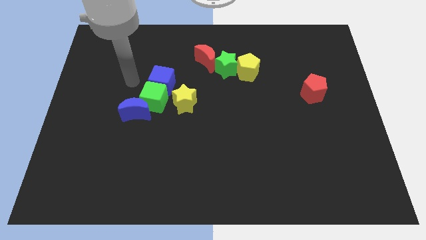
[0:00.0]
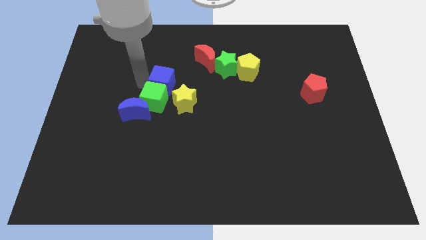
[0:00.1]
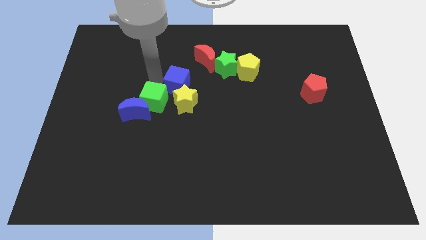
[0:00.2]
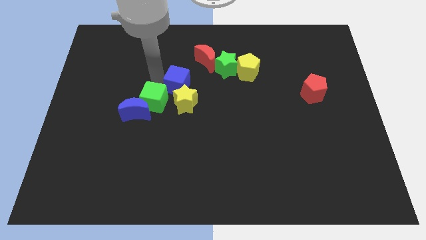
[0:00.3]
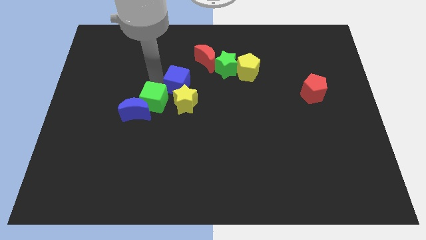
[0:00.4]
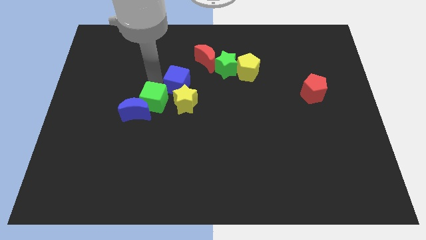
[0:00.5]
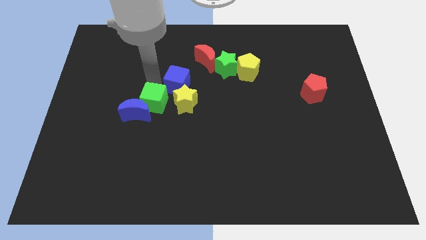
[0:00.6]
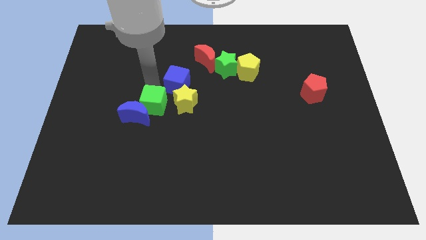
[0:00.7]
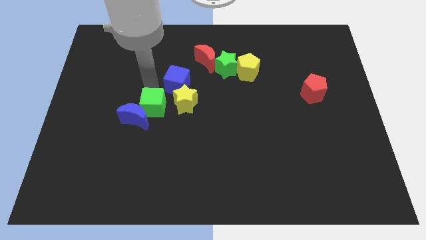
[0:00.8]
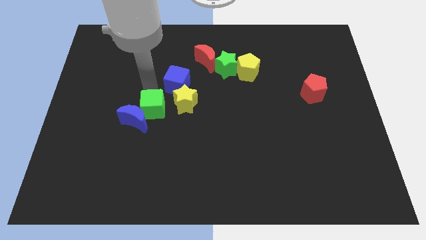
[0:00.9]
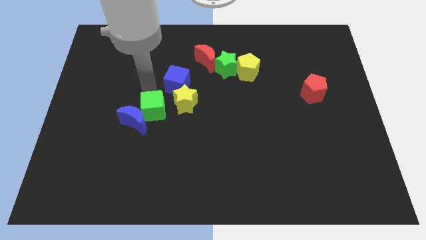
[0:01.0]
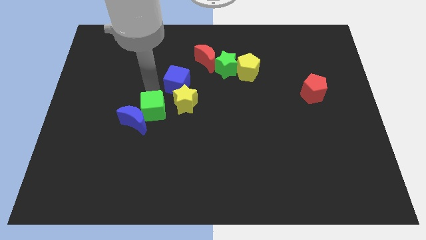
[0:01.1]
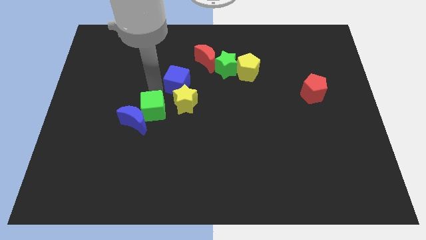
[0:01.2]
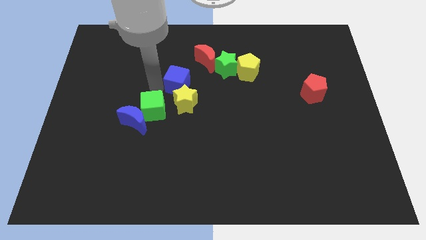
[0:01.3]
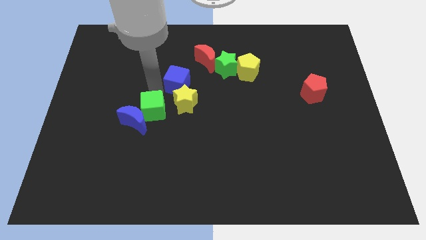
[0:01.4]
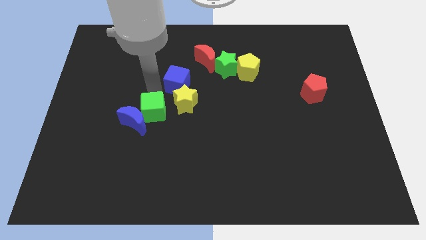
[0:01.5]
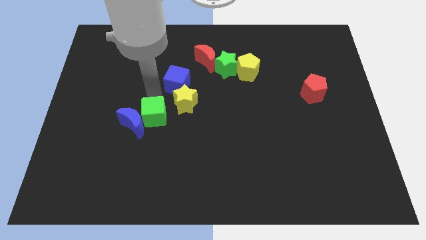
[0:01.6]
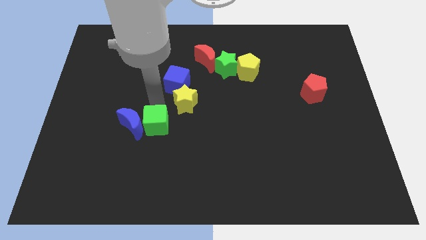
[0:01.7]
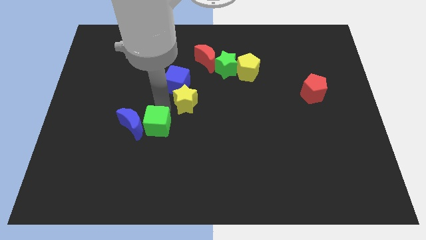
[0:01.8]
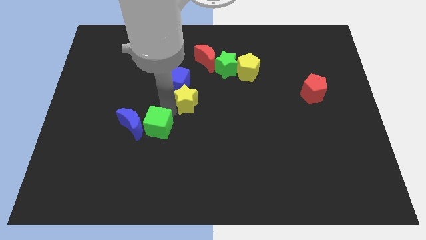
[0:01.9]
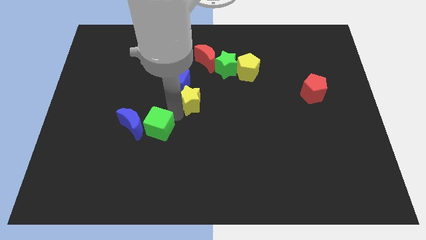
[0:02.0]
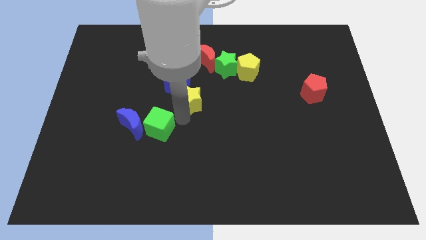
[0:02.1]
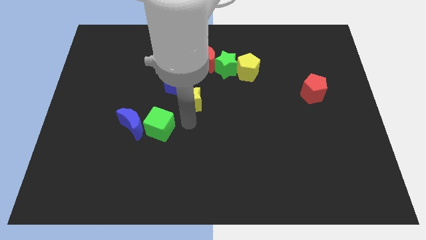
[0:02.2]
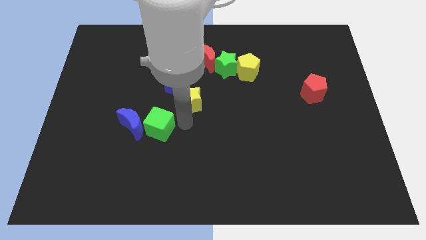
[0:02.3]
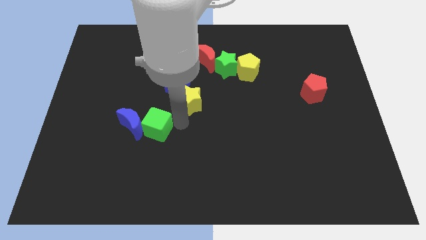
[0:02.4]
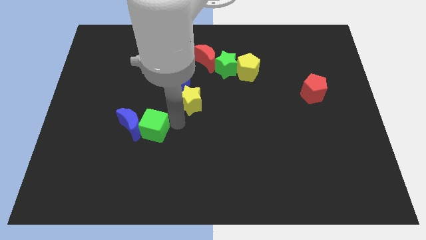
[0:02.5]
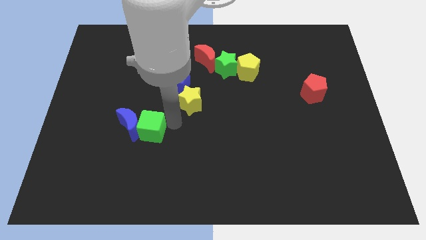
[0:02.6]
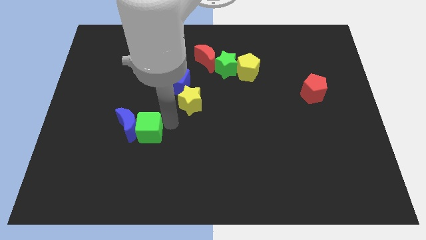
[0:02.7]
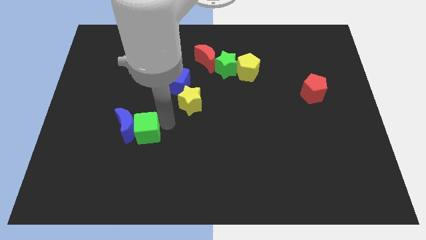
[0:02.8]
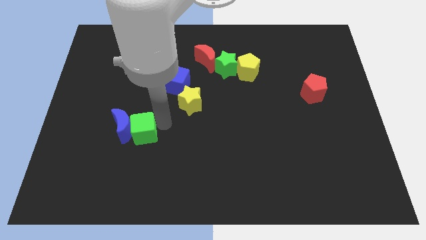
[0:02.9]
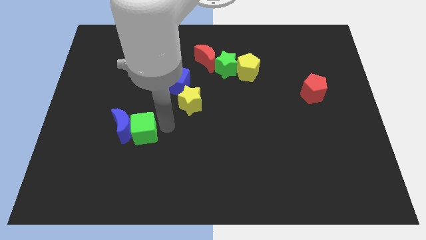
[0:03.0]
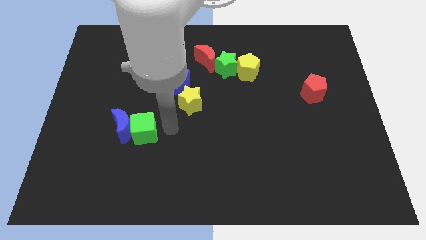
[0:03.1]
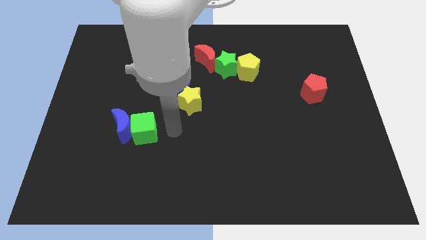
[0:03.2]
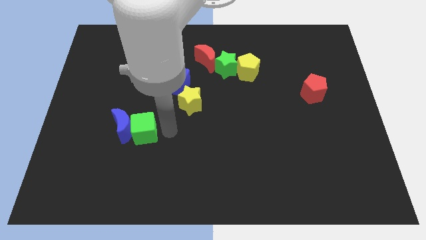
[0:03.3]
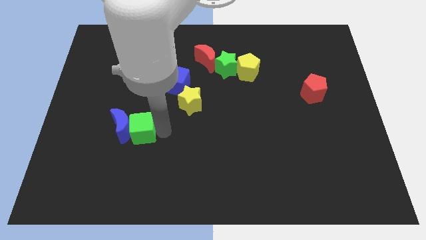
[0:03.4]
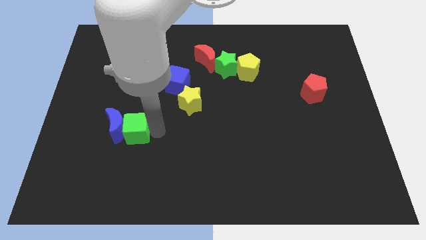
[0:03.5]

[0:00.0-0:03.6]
slightly move the green cube down and to the left diagonally

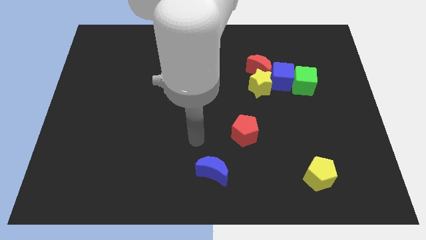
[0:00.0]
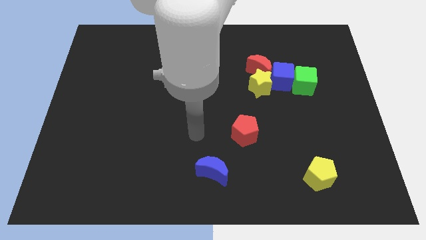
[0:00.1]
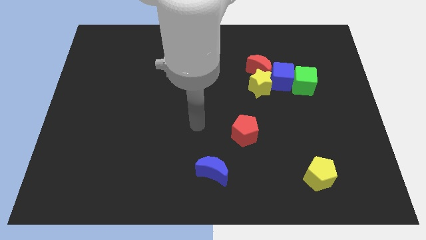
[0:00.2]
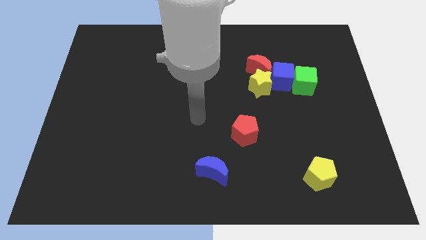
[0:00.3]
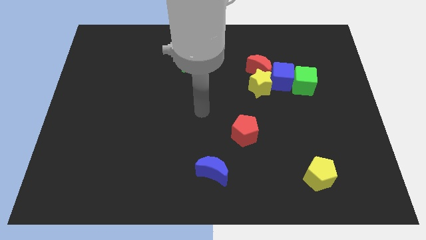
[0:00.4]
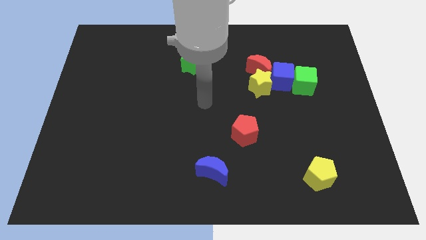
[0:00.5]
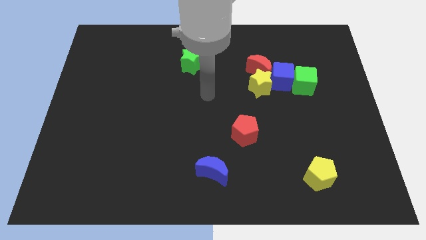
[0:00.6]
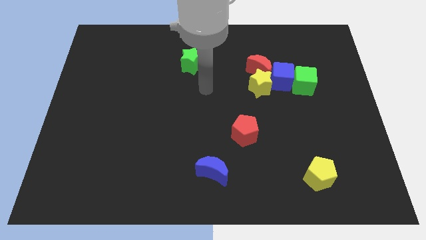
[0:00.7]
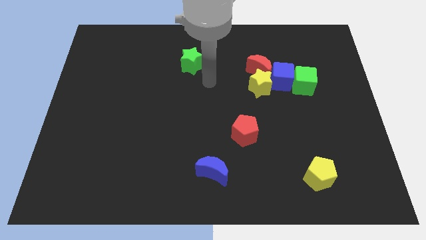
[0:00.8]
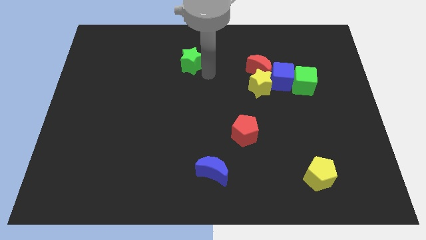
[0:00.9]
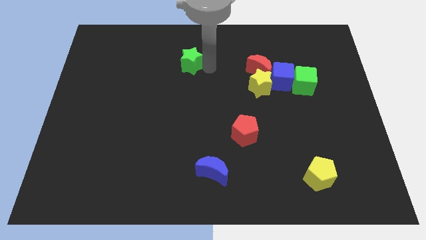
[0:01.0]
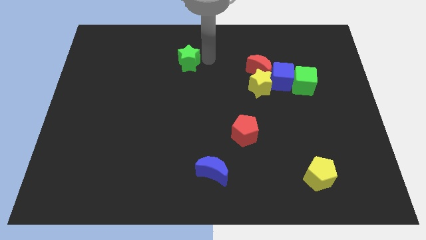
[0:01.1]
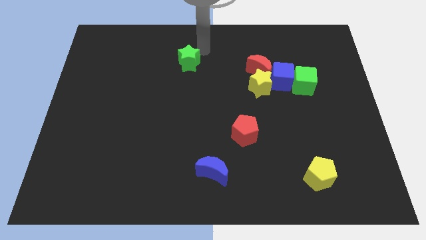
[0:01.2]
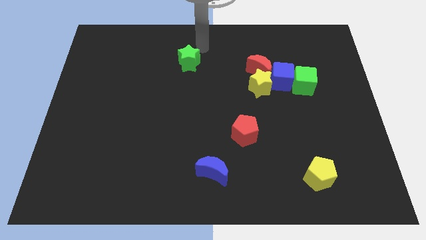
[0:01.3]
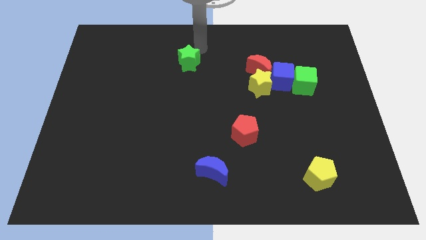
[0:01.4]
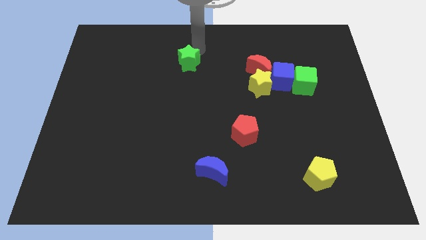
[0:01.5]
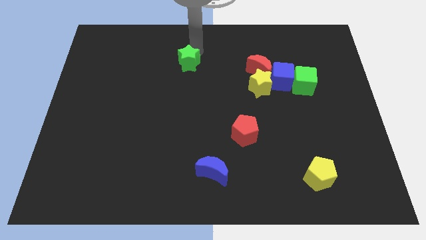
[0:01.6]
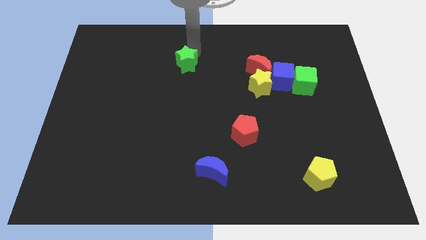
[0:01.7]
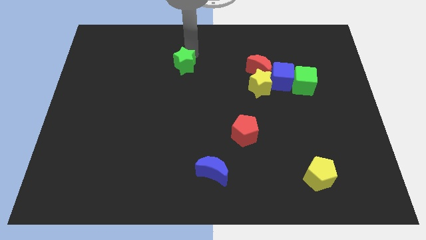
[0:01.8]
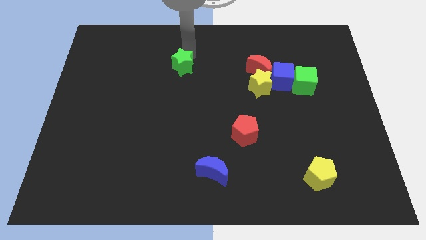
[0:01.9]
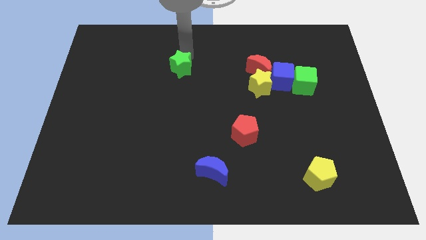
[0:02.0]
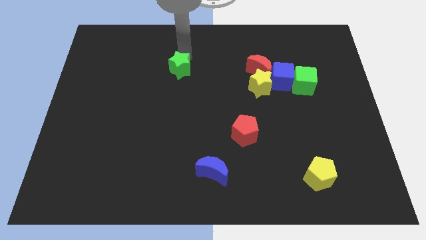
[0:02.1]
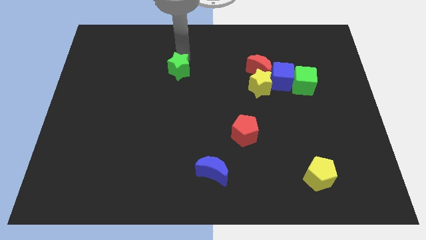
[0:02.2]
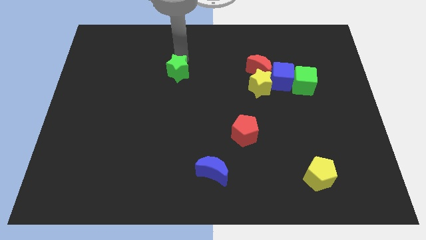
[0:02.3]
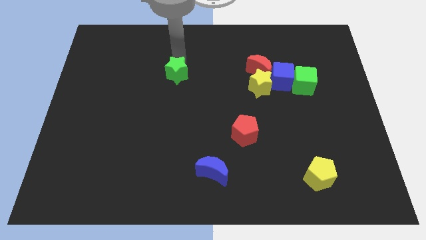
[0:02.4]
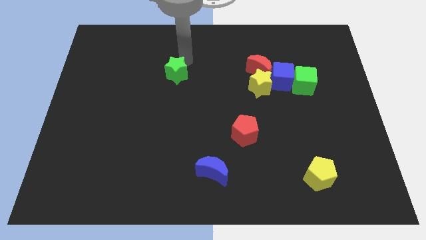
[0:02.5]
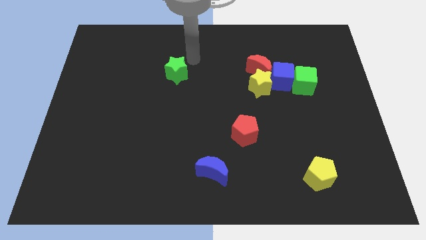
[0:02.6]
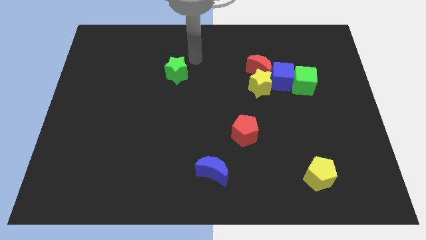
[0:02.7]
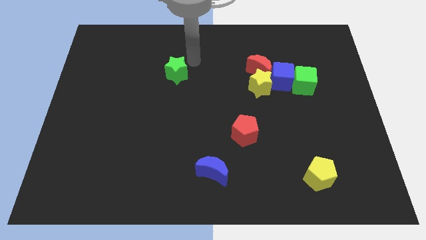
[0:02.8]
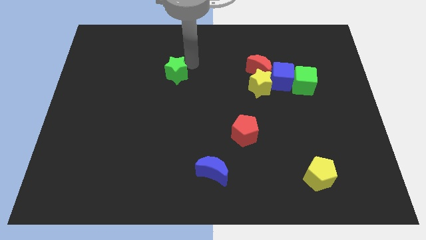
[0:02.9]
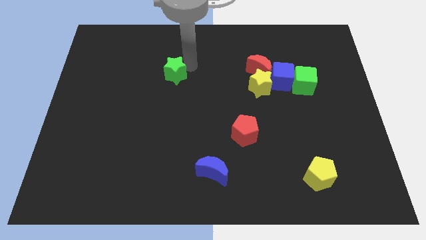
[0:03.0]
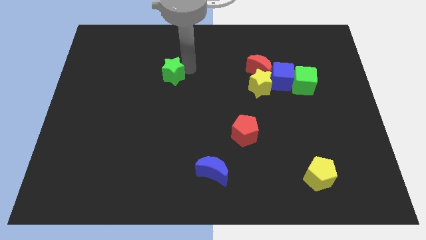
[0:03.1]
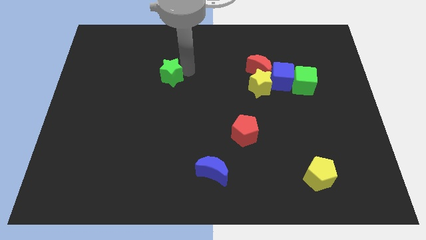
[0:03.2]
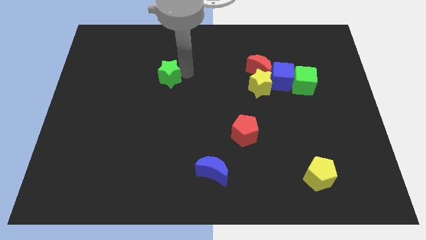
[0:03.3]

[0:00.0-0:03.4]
slide the green star a little bit downwards and left diagonally

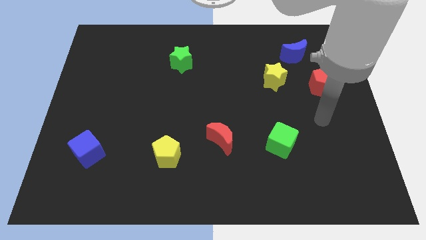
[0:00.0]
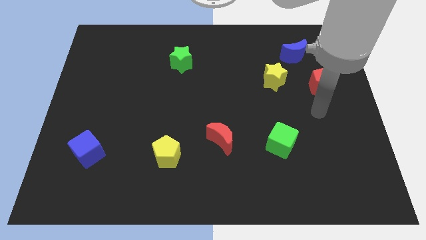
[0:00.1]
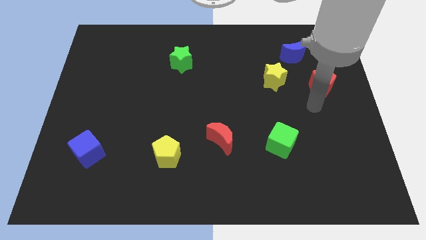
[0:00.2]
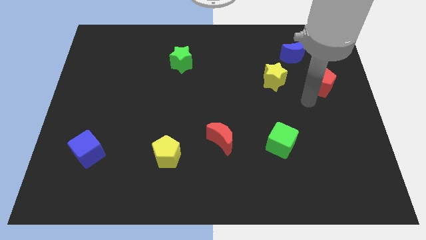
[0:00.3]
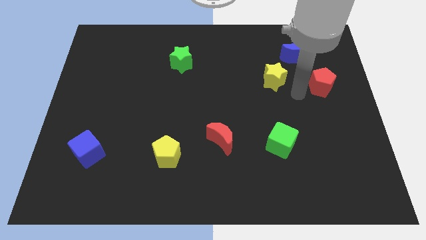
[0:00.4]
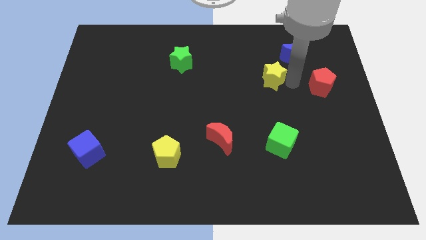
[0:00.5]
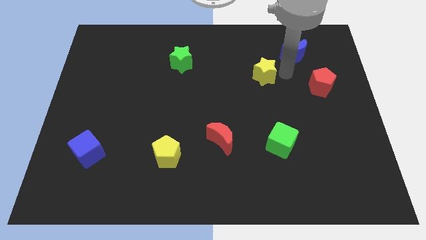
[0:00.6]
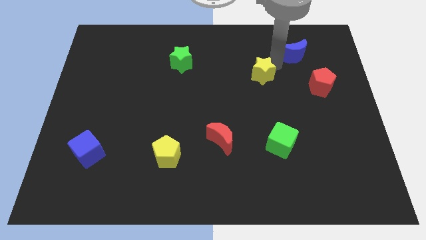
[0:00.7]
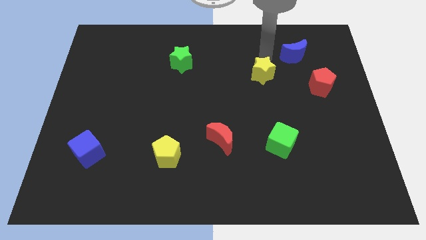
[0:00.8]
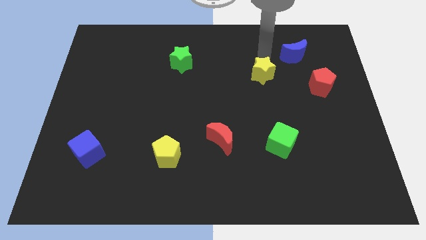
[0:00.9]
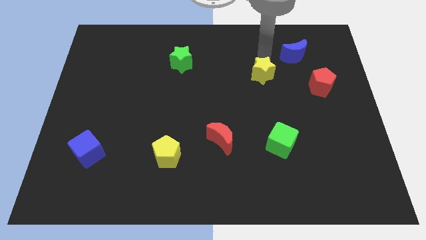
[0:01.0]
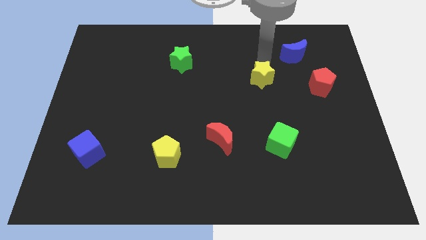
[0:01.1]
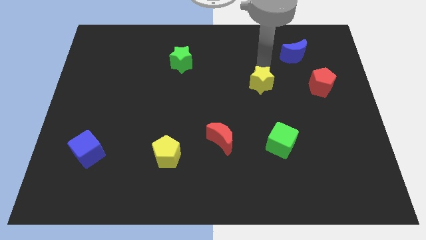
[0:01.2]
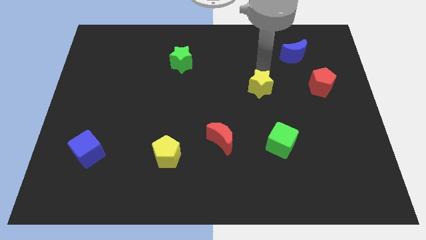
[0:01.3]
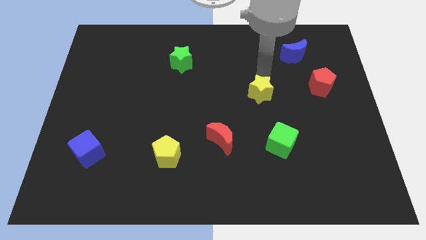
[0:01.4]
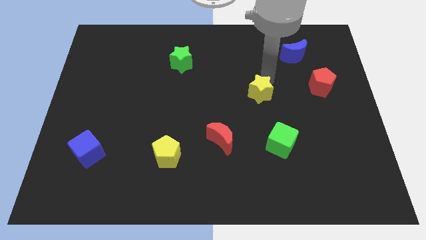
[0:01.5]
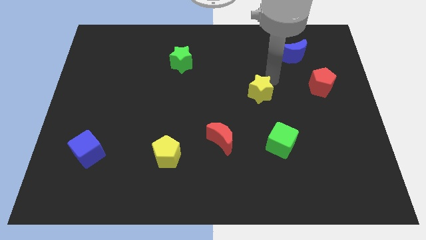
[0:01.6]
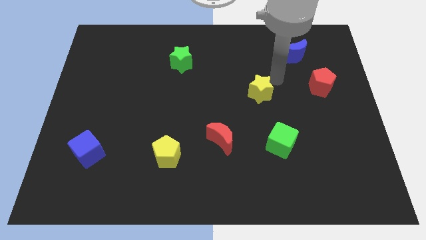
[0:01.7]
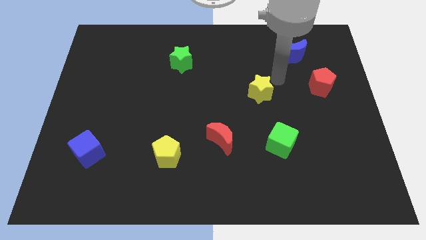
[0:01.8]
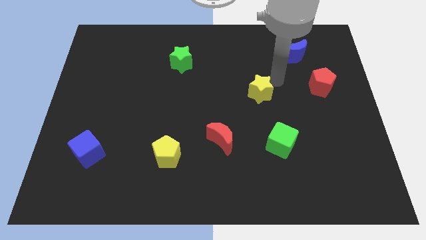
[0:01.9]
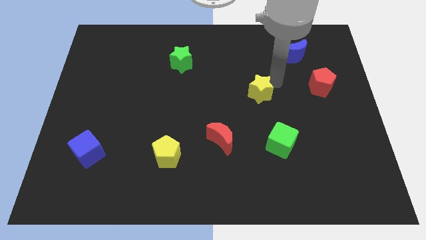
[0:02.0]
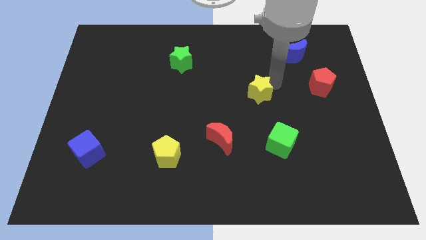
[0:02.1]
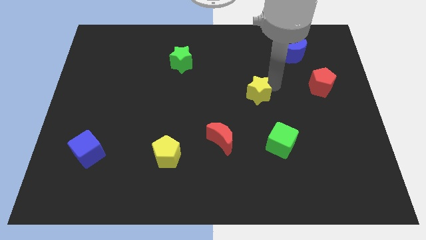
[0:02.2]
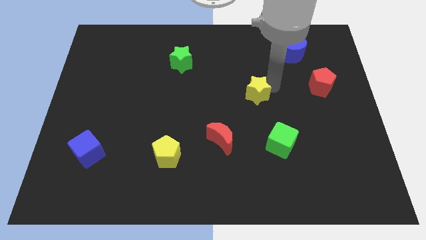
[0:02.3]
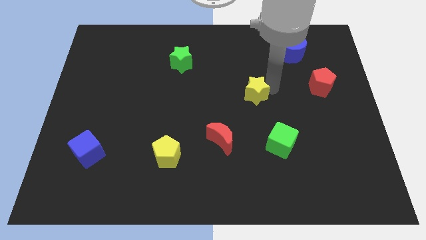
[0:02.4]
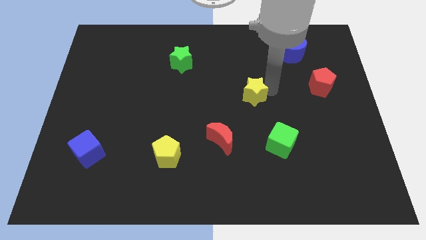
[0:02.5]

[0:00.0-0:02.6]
move the yellow star a little down and to the left
